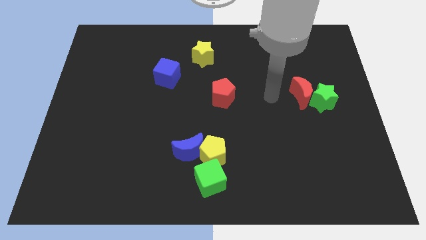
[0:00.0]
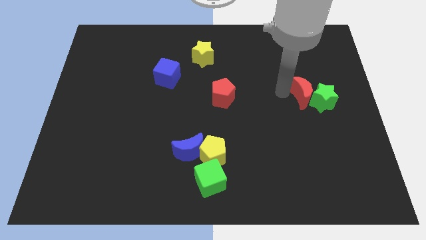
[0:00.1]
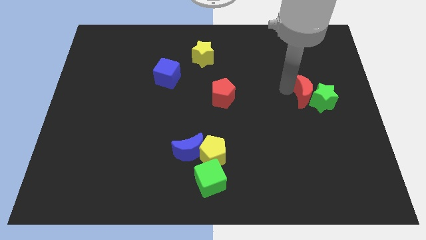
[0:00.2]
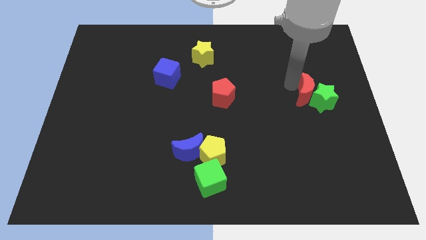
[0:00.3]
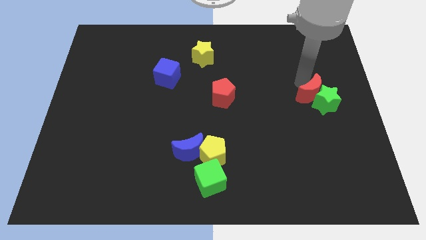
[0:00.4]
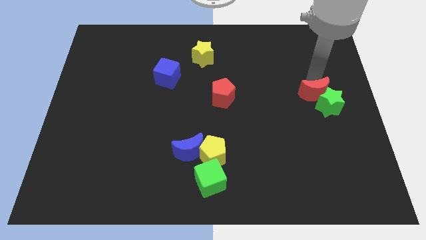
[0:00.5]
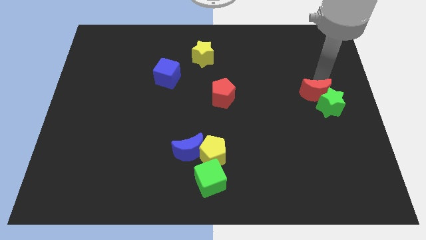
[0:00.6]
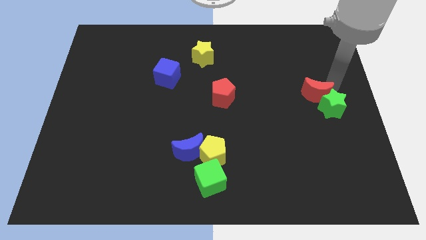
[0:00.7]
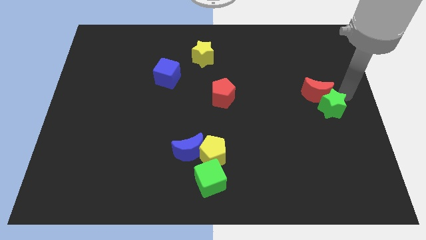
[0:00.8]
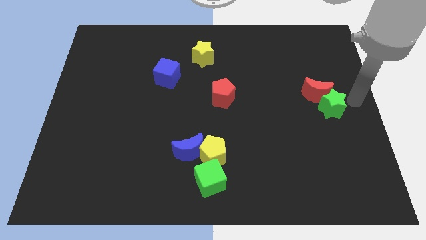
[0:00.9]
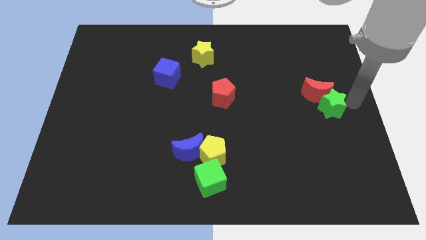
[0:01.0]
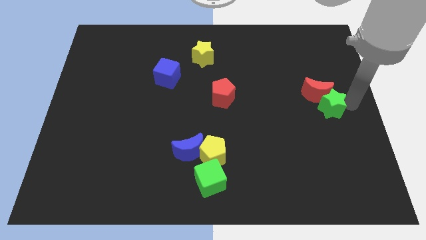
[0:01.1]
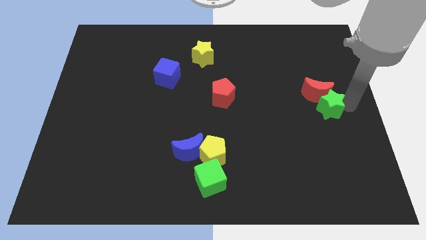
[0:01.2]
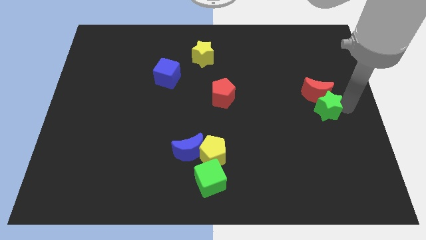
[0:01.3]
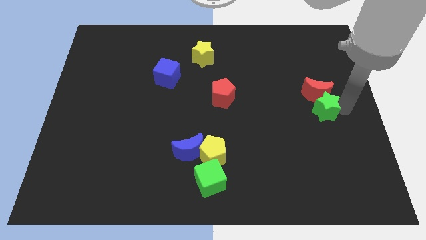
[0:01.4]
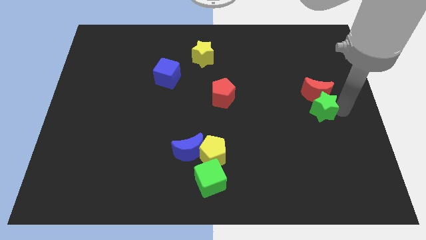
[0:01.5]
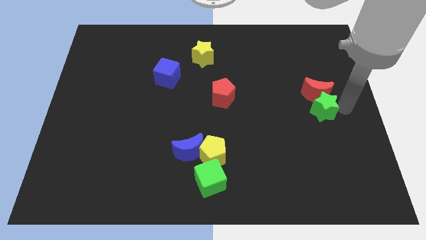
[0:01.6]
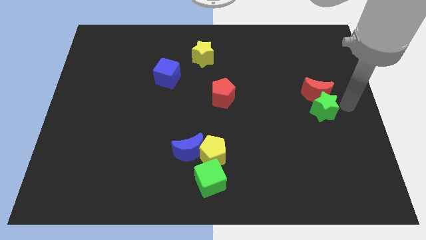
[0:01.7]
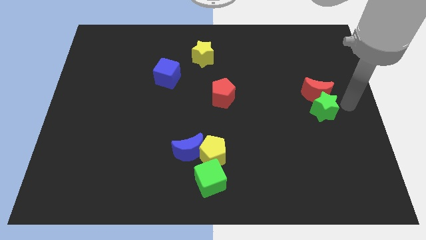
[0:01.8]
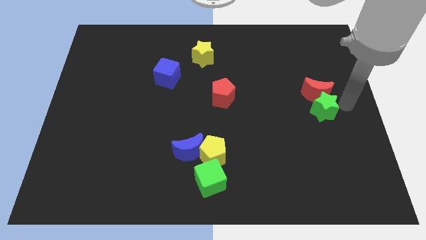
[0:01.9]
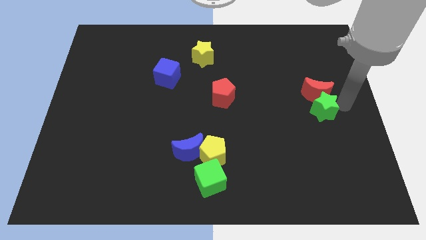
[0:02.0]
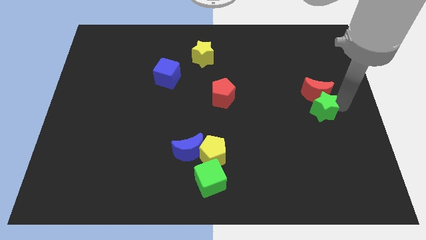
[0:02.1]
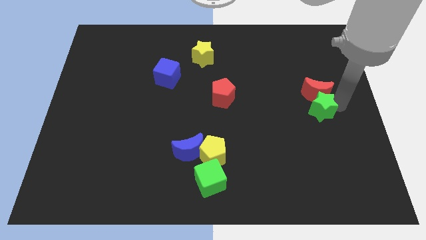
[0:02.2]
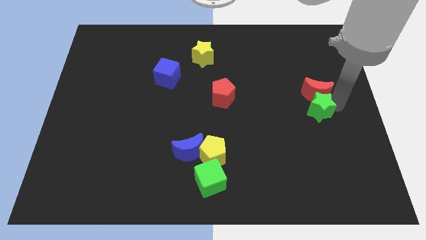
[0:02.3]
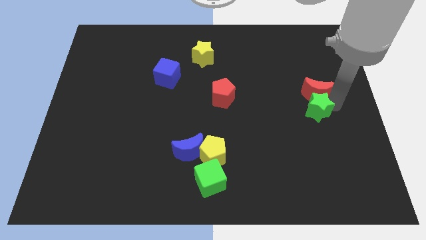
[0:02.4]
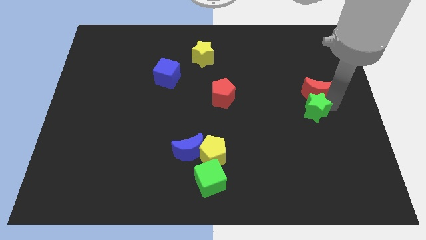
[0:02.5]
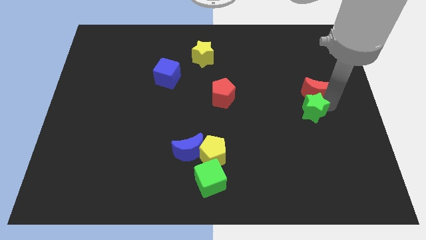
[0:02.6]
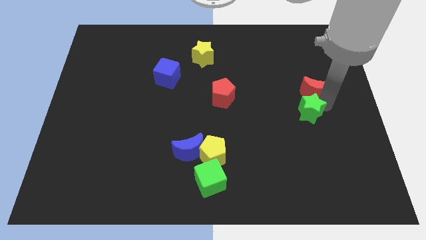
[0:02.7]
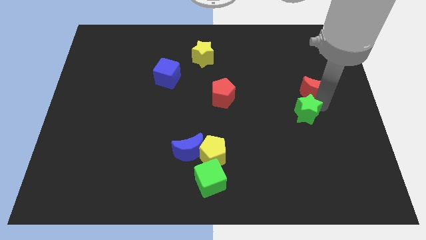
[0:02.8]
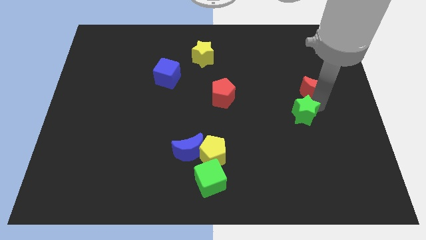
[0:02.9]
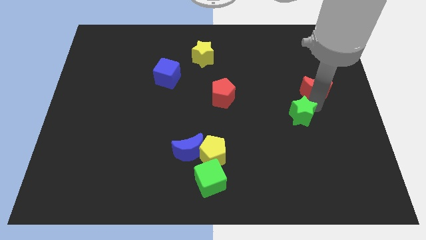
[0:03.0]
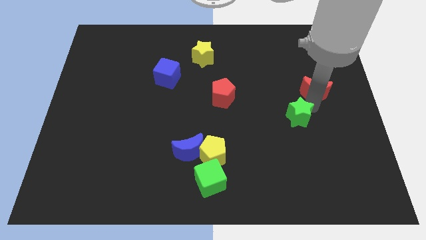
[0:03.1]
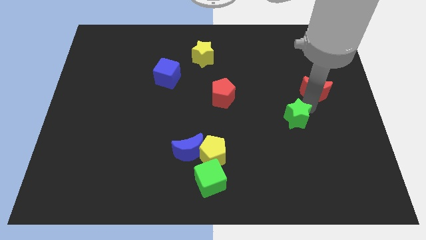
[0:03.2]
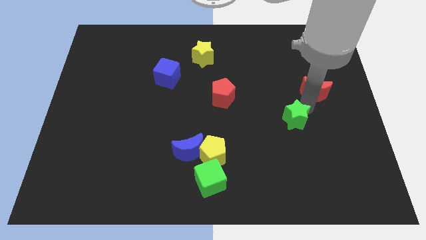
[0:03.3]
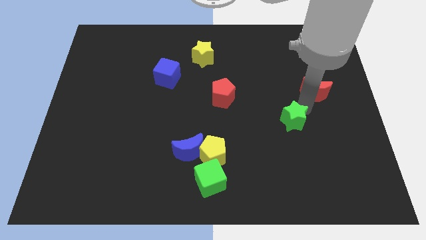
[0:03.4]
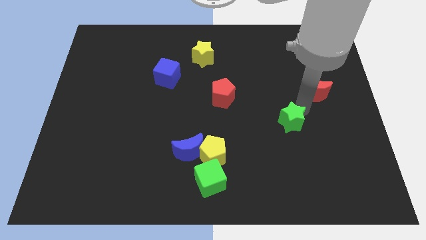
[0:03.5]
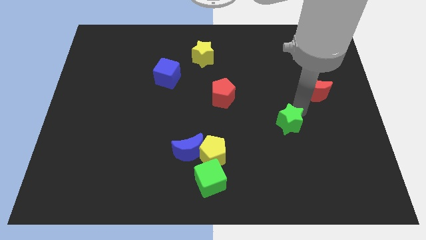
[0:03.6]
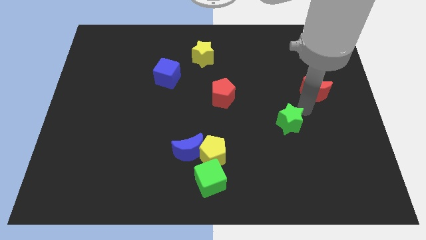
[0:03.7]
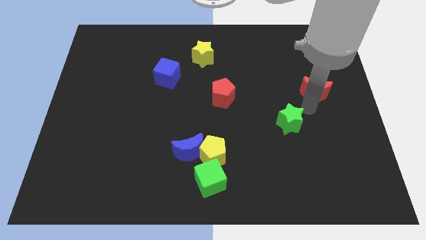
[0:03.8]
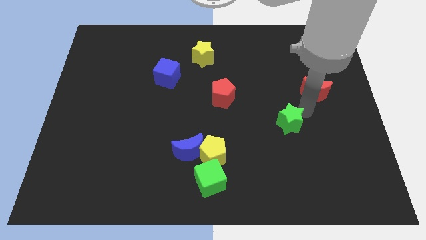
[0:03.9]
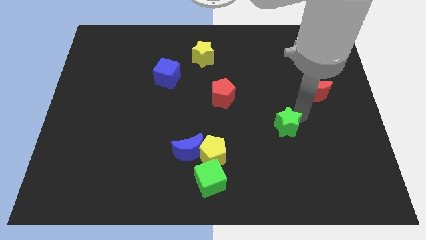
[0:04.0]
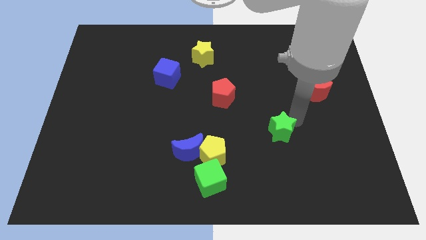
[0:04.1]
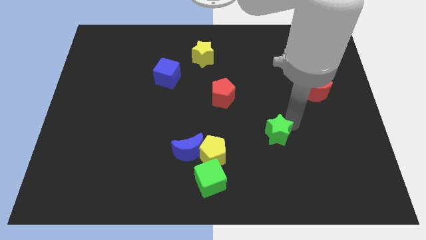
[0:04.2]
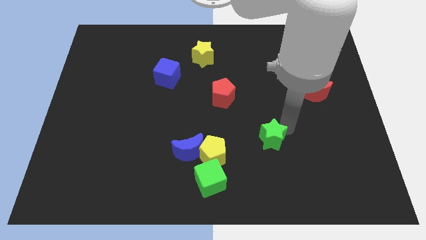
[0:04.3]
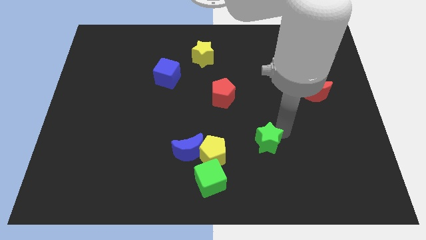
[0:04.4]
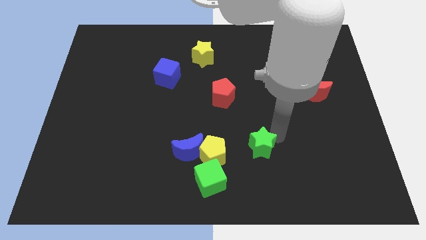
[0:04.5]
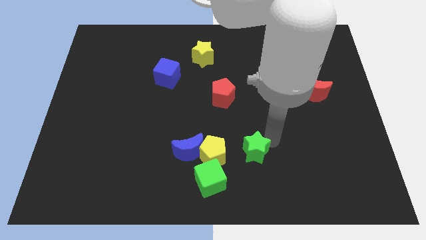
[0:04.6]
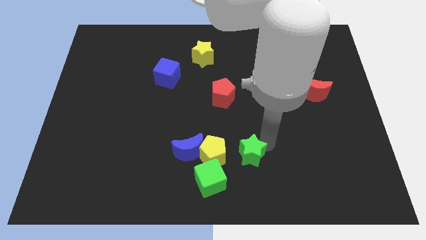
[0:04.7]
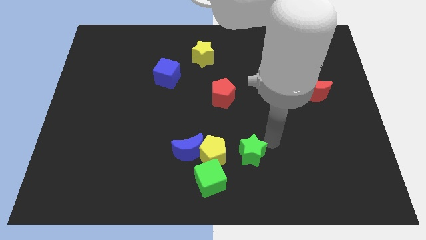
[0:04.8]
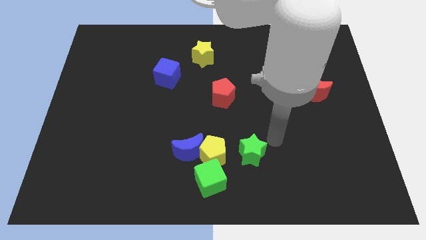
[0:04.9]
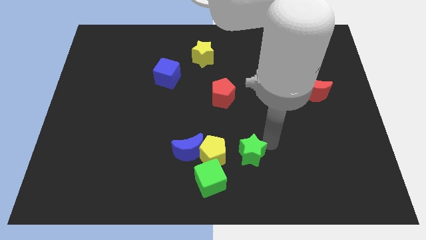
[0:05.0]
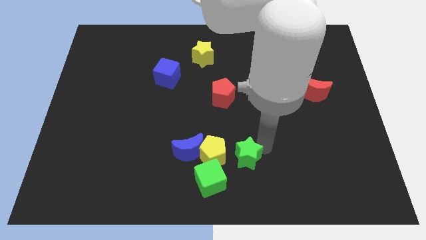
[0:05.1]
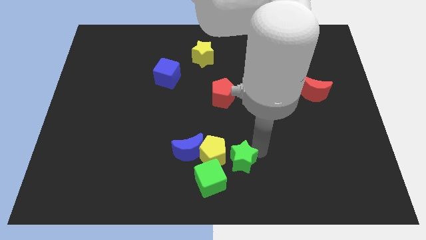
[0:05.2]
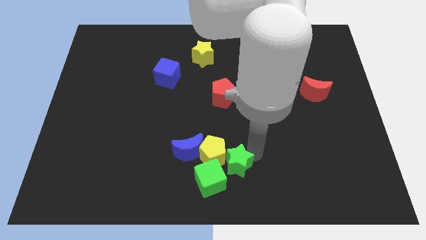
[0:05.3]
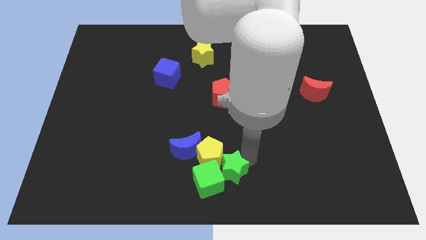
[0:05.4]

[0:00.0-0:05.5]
put the green star to the green cube

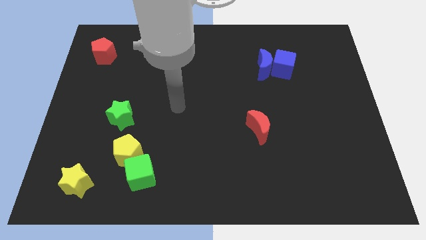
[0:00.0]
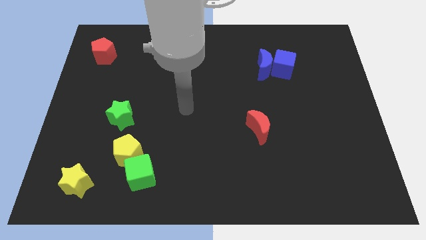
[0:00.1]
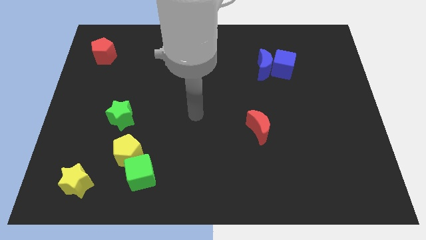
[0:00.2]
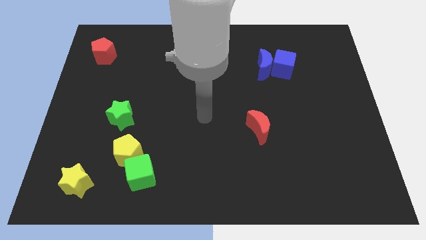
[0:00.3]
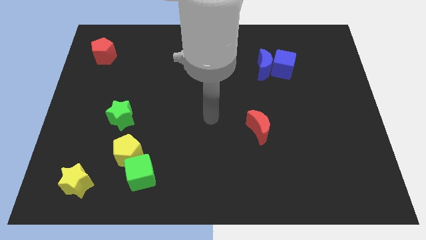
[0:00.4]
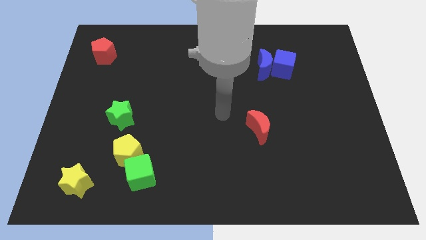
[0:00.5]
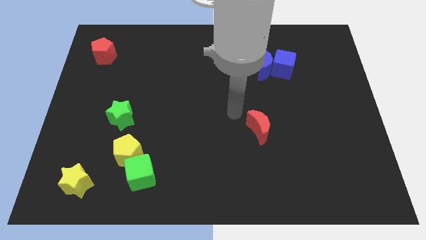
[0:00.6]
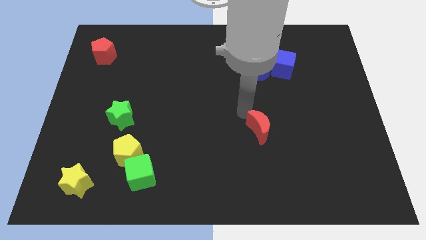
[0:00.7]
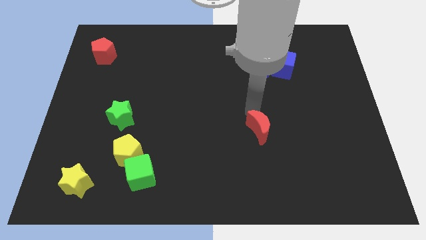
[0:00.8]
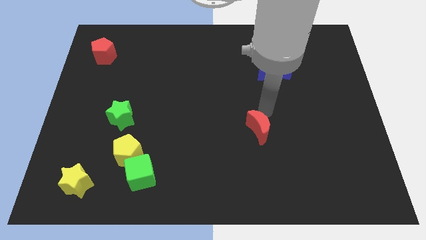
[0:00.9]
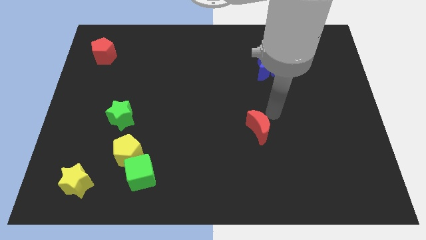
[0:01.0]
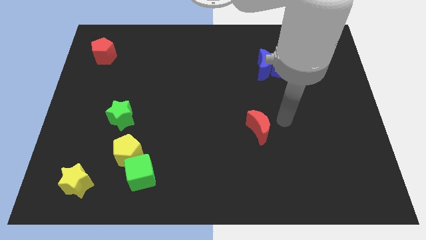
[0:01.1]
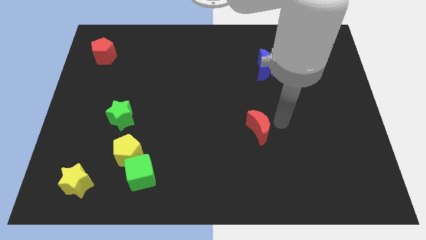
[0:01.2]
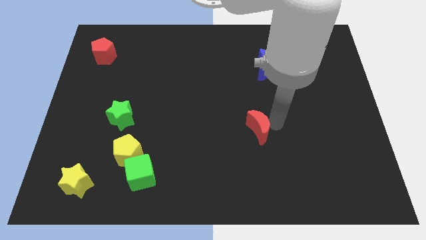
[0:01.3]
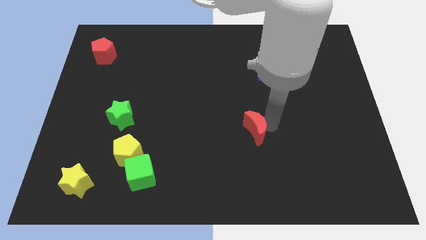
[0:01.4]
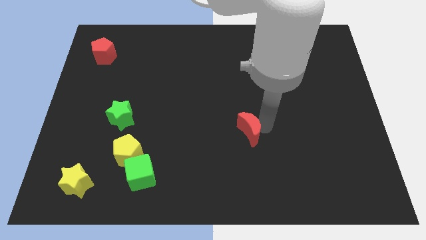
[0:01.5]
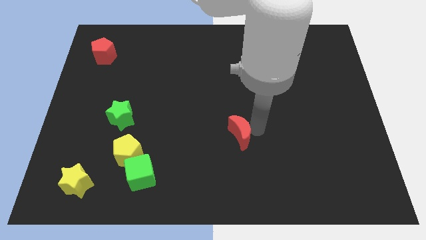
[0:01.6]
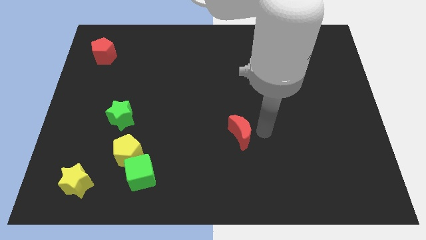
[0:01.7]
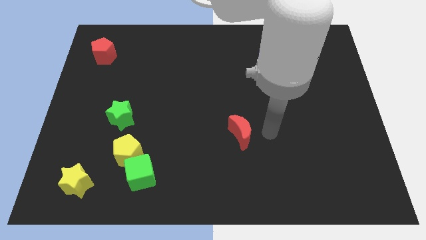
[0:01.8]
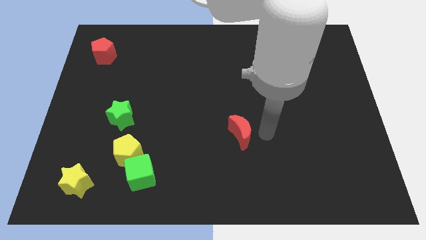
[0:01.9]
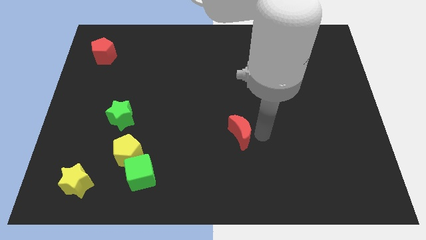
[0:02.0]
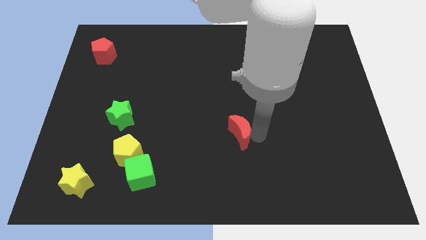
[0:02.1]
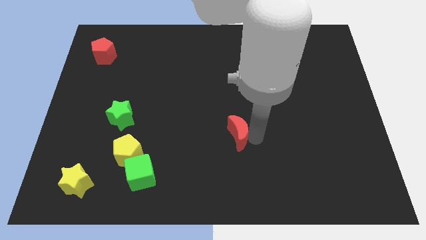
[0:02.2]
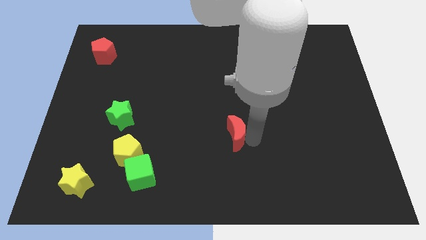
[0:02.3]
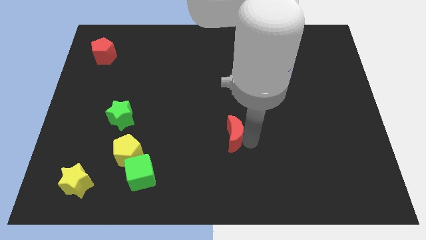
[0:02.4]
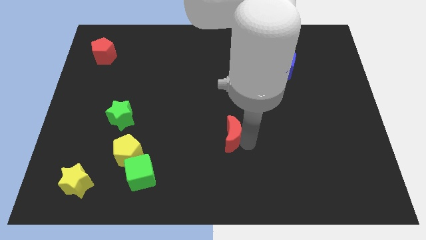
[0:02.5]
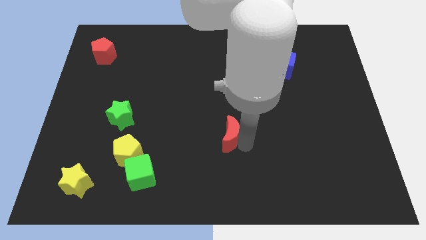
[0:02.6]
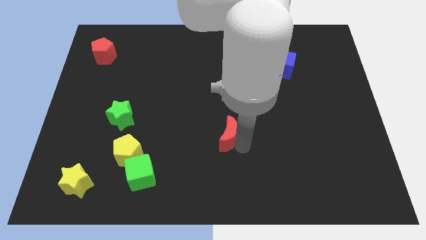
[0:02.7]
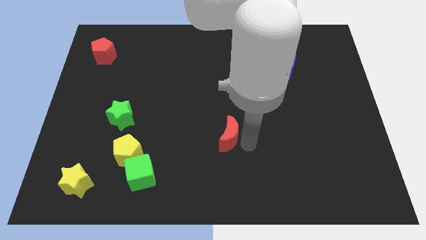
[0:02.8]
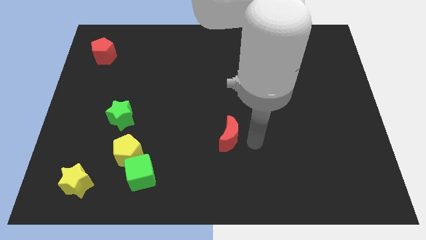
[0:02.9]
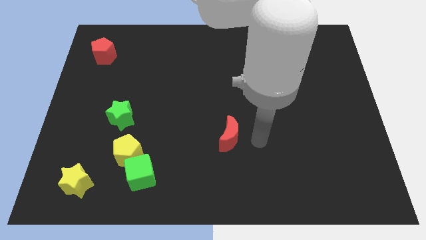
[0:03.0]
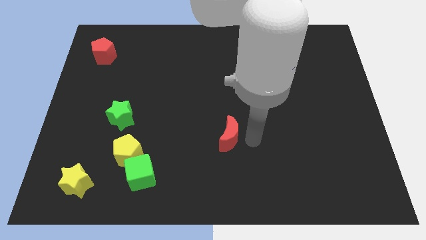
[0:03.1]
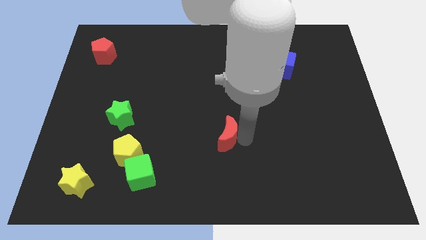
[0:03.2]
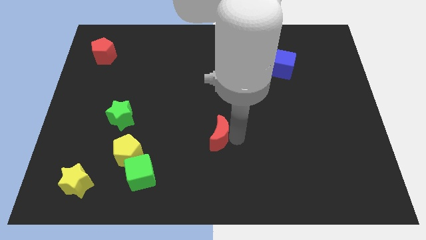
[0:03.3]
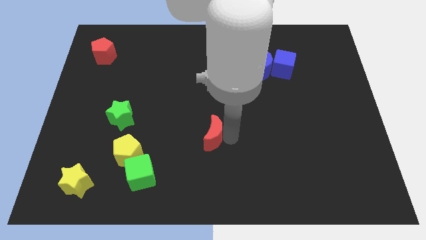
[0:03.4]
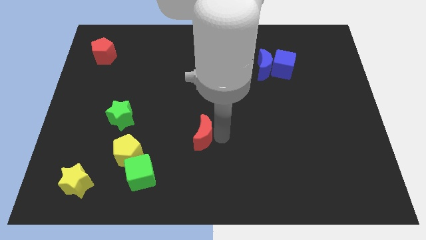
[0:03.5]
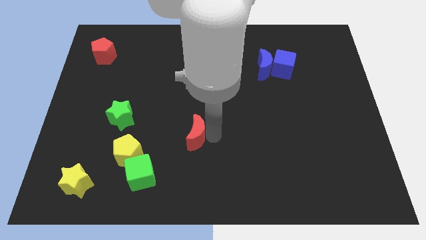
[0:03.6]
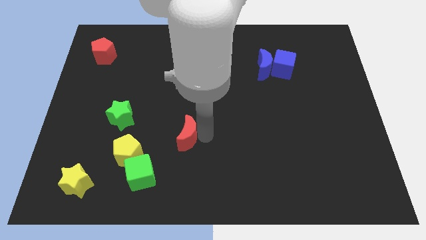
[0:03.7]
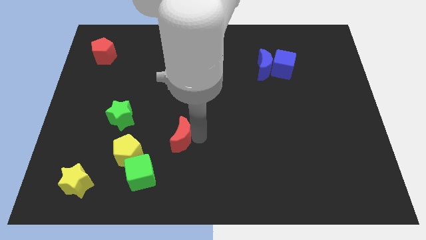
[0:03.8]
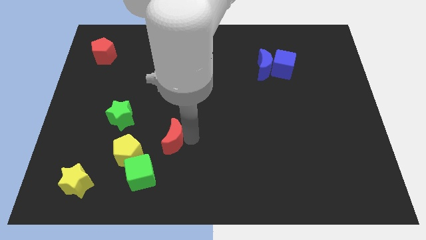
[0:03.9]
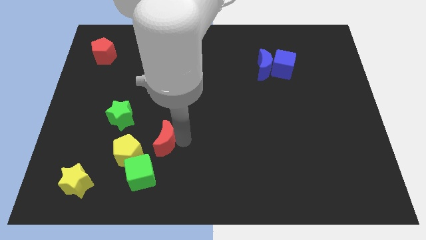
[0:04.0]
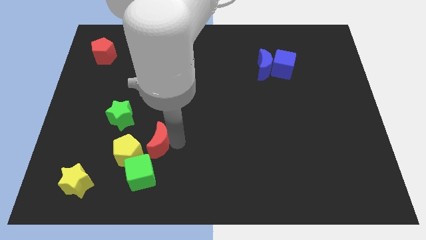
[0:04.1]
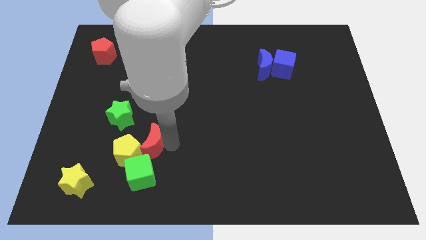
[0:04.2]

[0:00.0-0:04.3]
slide the red moon to the yellow pentagon
